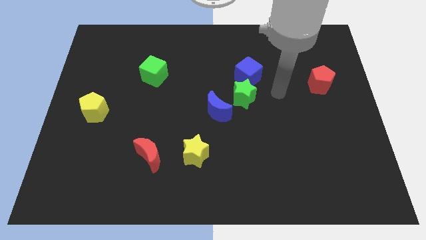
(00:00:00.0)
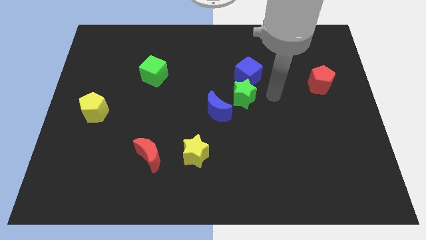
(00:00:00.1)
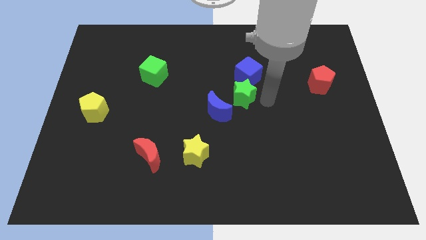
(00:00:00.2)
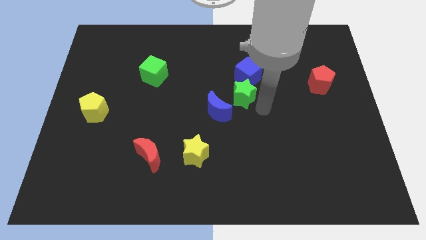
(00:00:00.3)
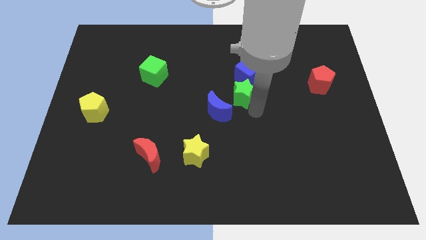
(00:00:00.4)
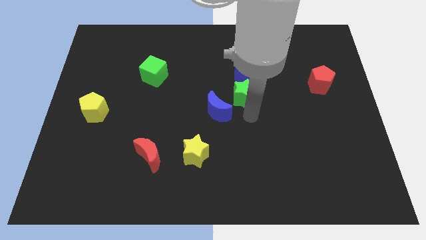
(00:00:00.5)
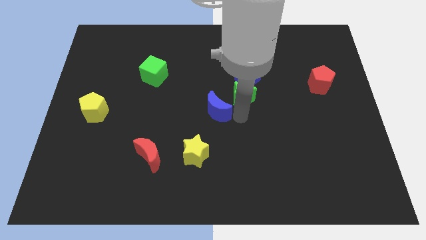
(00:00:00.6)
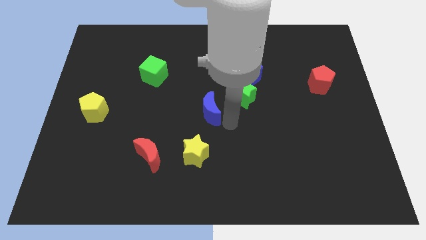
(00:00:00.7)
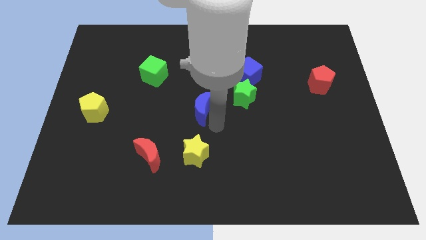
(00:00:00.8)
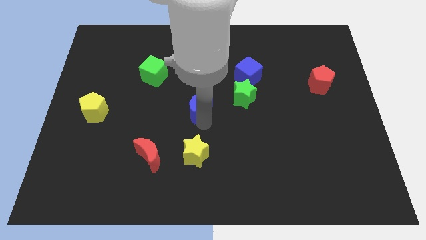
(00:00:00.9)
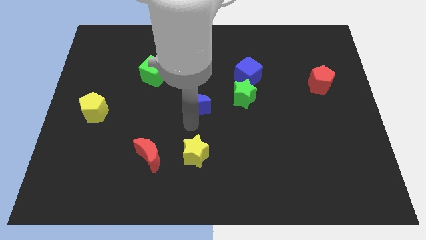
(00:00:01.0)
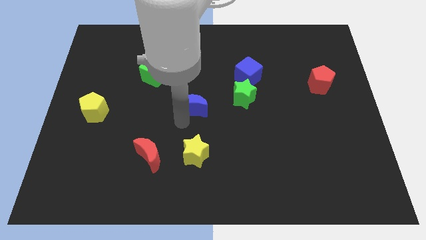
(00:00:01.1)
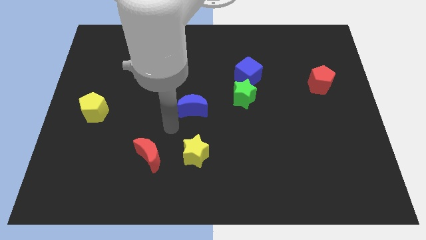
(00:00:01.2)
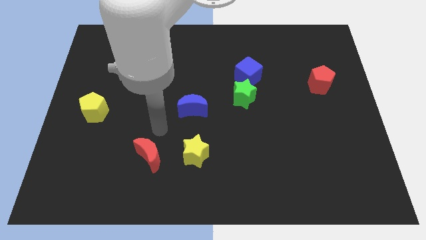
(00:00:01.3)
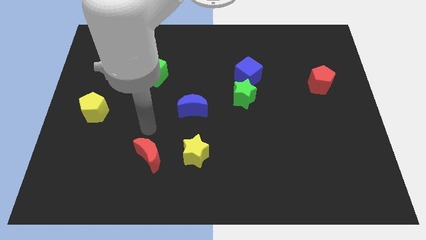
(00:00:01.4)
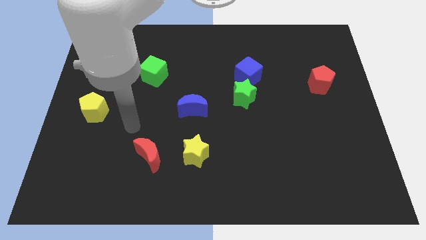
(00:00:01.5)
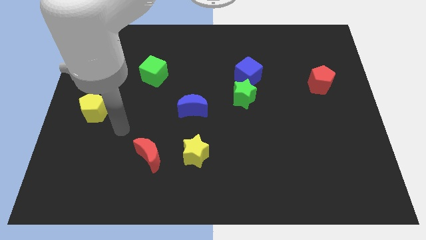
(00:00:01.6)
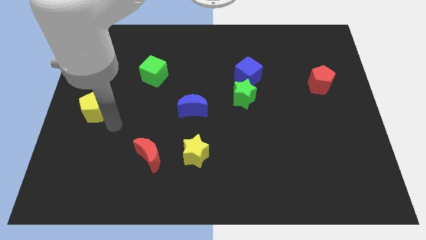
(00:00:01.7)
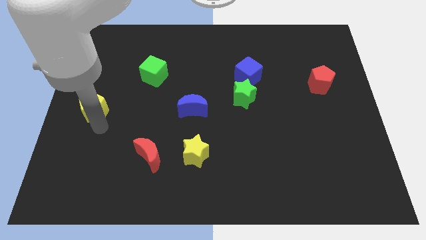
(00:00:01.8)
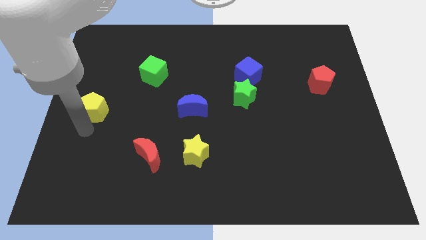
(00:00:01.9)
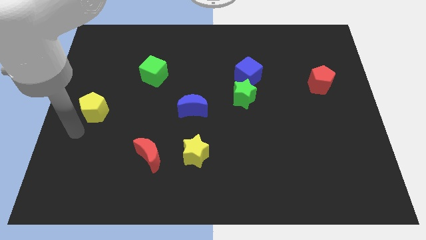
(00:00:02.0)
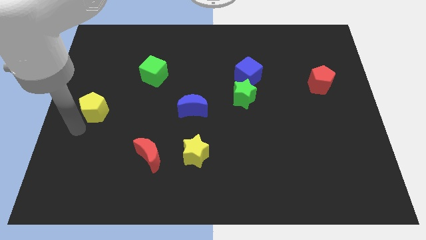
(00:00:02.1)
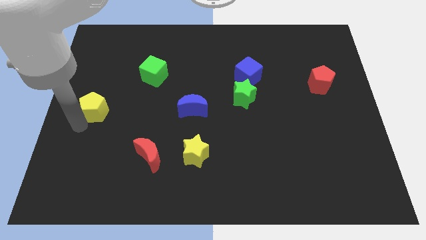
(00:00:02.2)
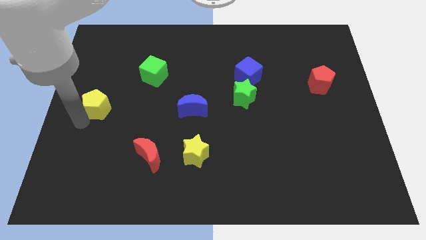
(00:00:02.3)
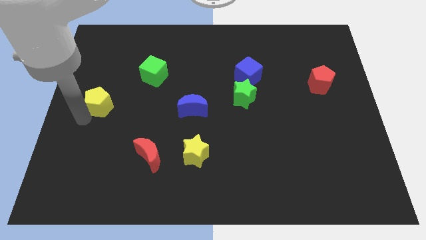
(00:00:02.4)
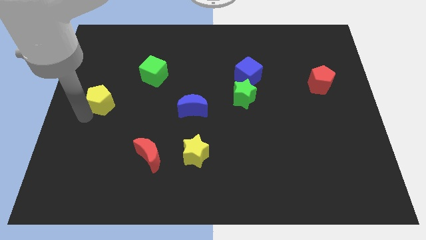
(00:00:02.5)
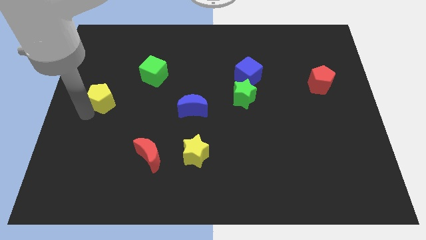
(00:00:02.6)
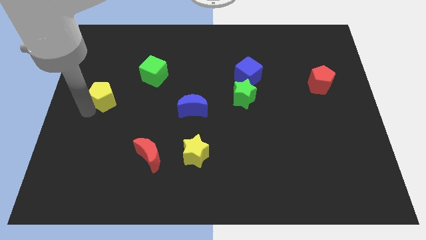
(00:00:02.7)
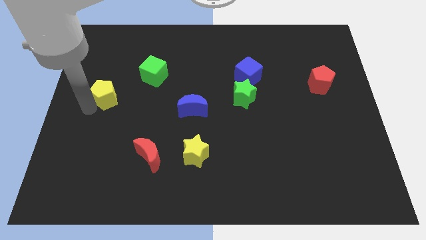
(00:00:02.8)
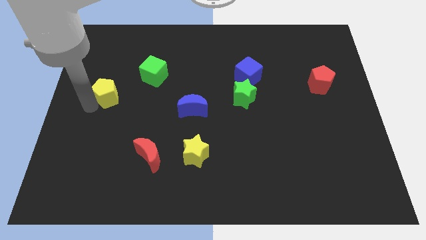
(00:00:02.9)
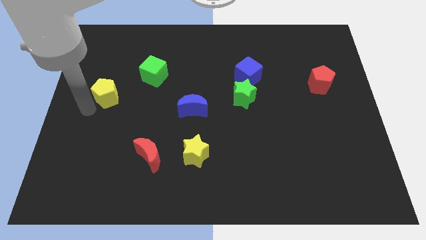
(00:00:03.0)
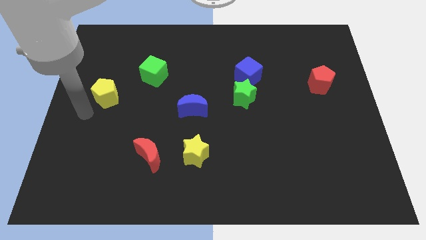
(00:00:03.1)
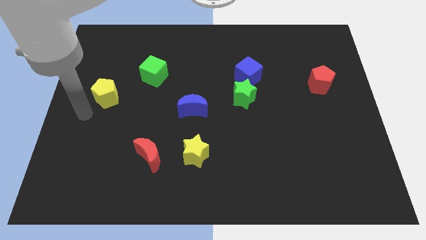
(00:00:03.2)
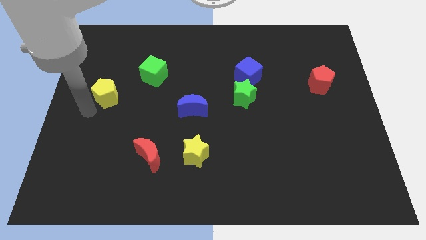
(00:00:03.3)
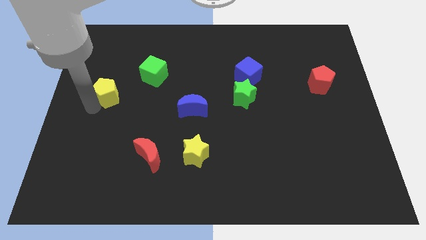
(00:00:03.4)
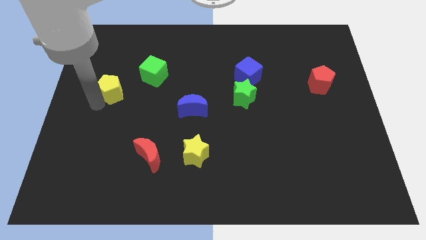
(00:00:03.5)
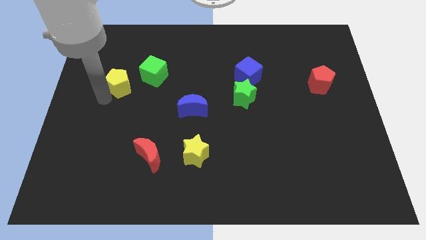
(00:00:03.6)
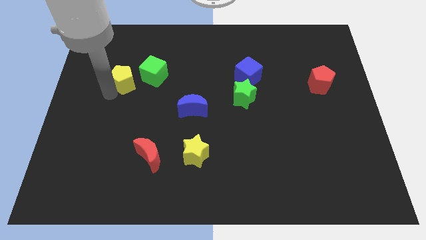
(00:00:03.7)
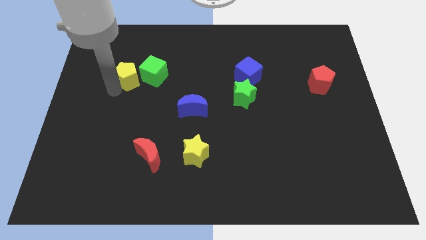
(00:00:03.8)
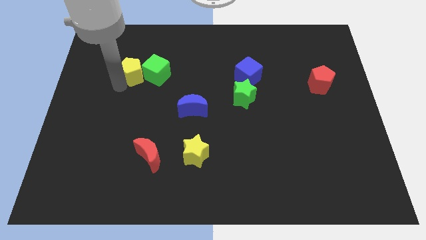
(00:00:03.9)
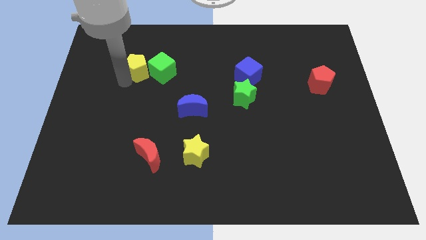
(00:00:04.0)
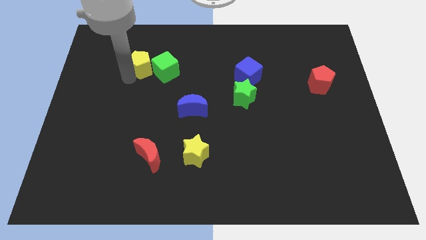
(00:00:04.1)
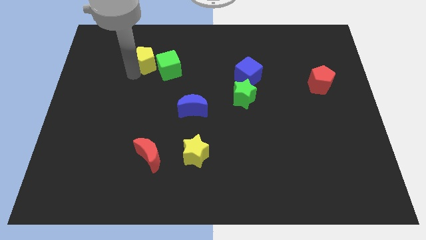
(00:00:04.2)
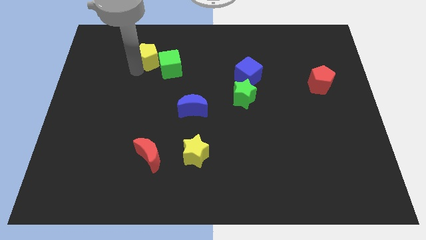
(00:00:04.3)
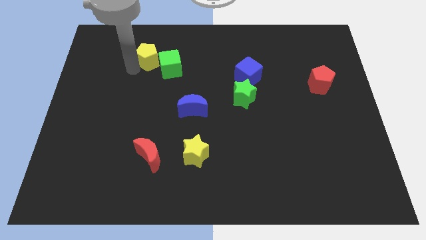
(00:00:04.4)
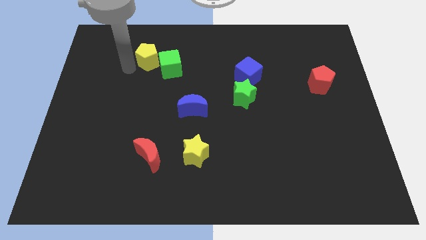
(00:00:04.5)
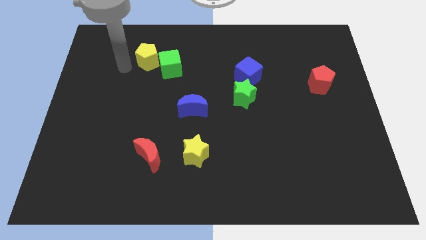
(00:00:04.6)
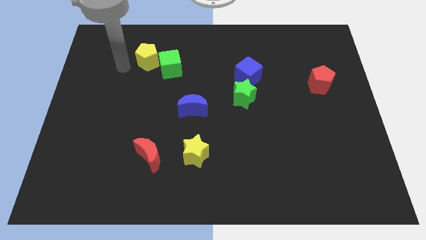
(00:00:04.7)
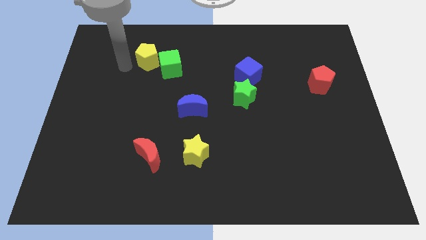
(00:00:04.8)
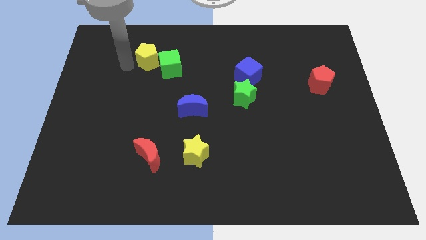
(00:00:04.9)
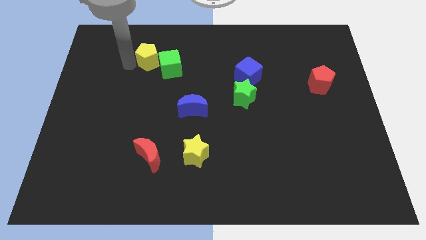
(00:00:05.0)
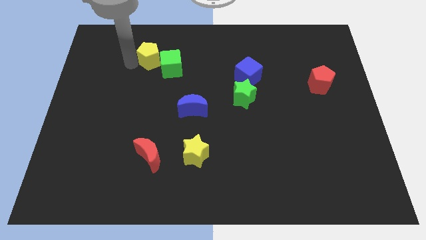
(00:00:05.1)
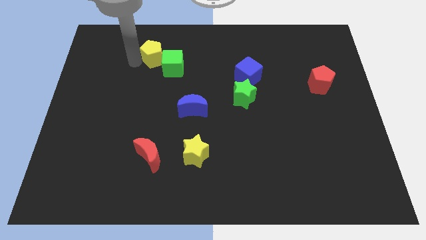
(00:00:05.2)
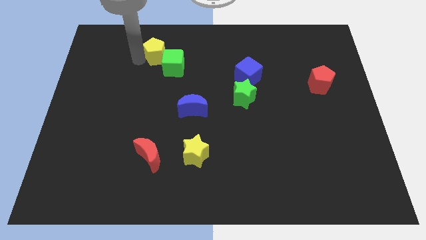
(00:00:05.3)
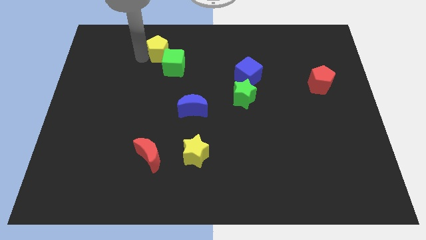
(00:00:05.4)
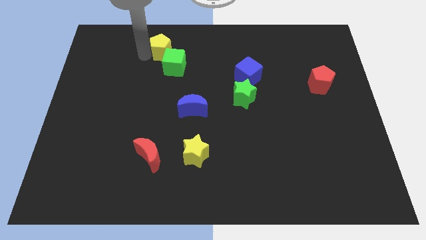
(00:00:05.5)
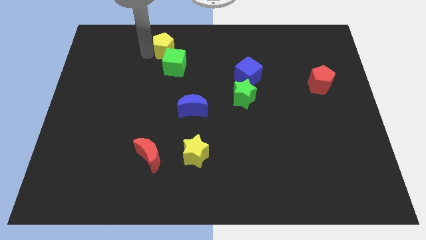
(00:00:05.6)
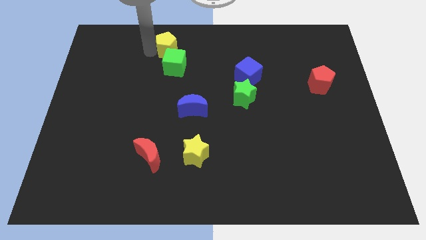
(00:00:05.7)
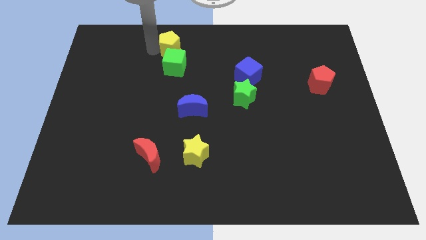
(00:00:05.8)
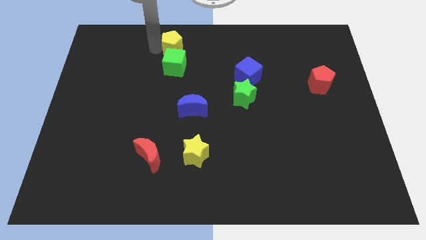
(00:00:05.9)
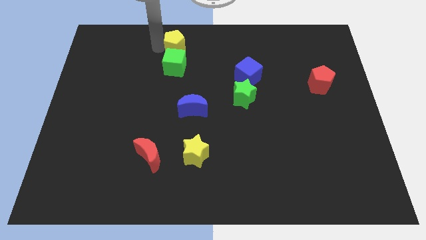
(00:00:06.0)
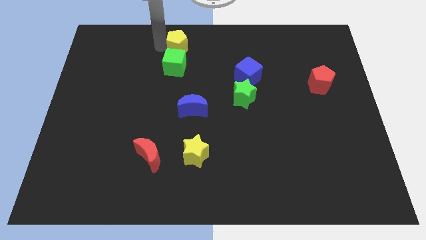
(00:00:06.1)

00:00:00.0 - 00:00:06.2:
push the yellow pentagon to the top right of the green cube

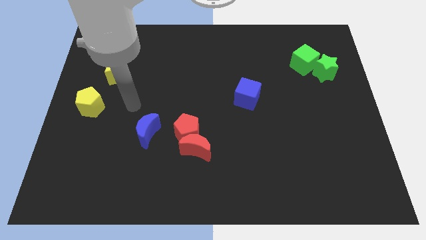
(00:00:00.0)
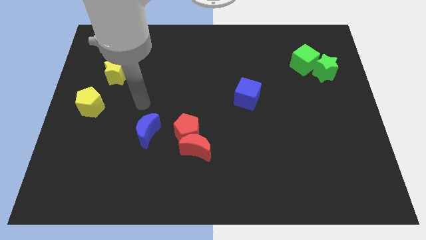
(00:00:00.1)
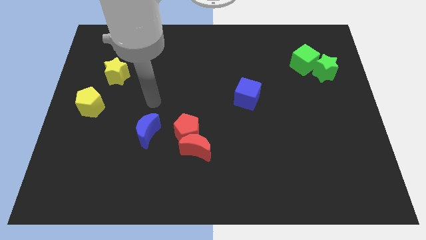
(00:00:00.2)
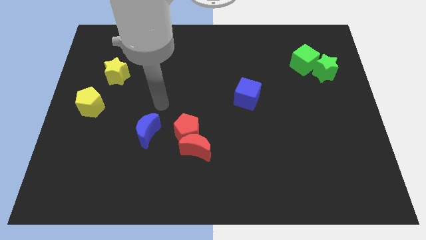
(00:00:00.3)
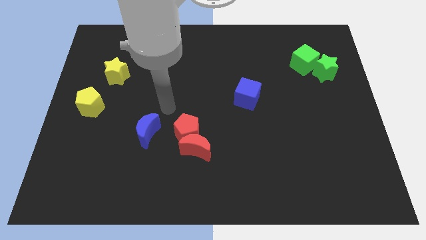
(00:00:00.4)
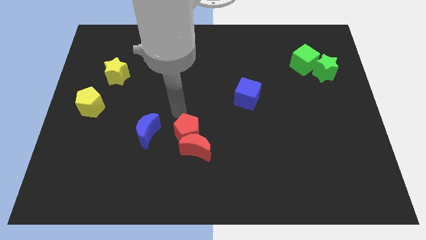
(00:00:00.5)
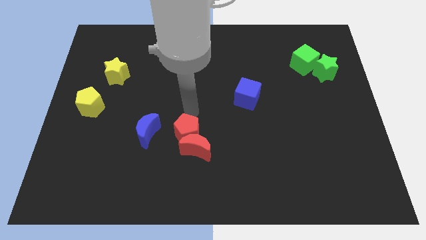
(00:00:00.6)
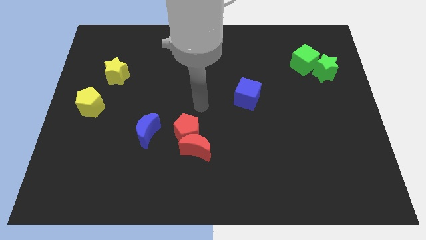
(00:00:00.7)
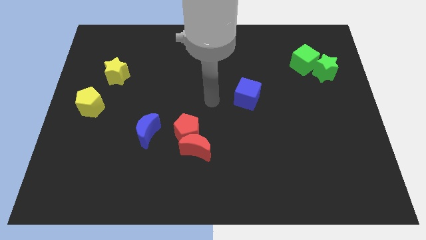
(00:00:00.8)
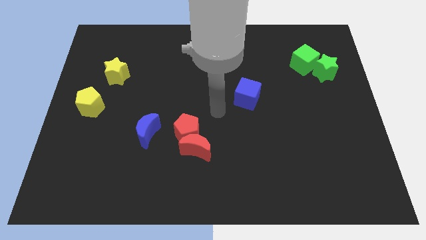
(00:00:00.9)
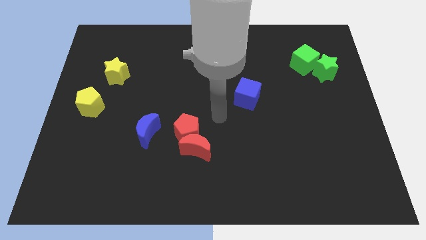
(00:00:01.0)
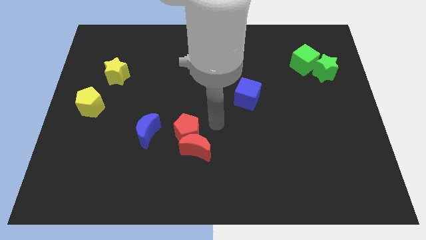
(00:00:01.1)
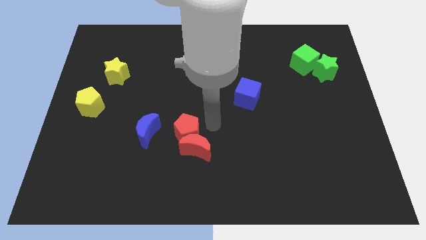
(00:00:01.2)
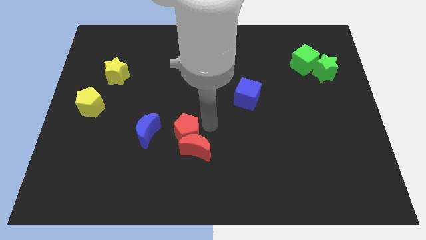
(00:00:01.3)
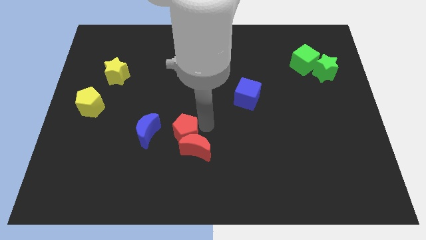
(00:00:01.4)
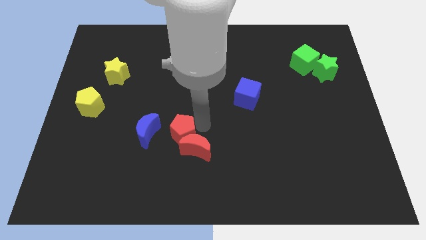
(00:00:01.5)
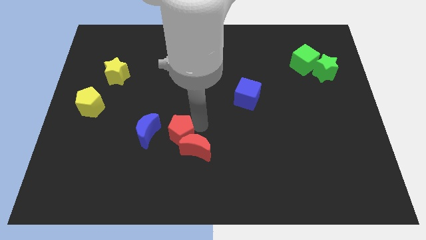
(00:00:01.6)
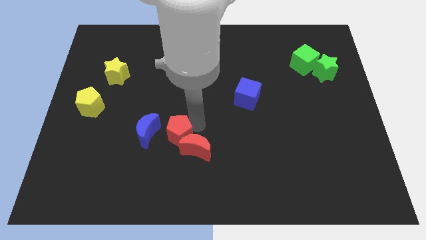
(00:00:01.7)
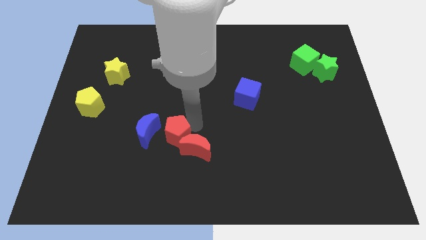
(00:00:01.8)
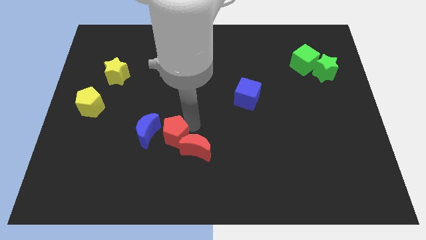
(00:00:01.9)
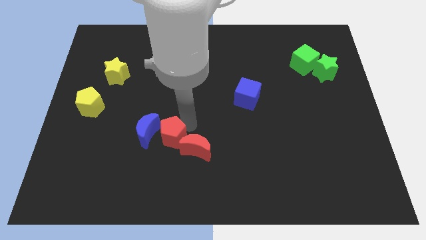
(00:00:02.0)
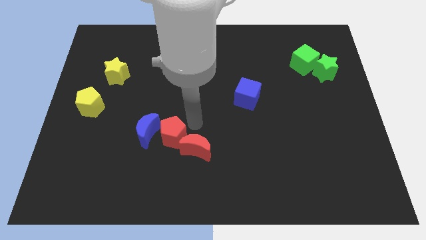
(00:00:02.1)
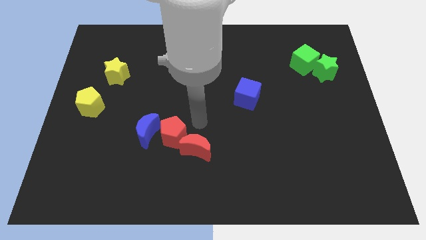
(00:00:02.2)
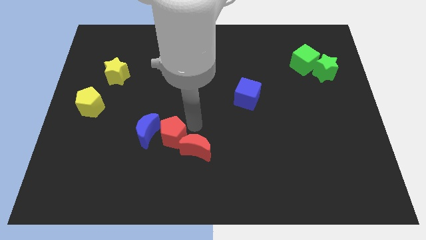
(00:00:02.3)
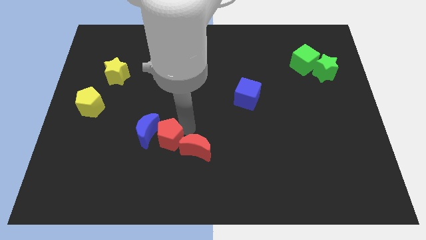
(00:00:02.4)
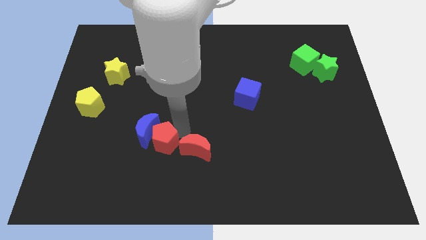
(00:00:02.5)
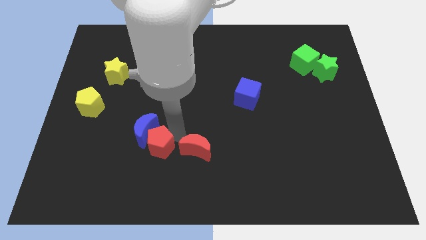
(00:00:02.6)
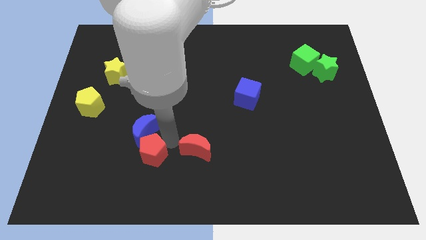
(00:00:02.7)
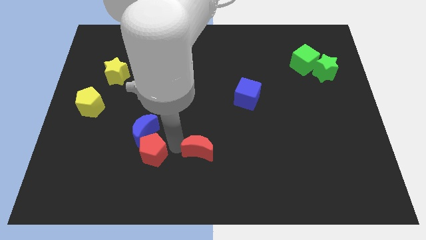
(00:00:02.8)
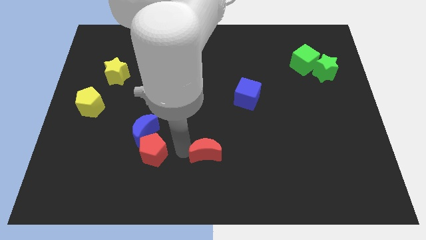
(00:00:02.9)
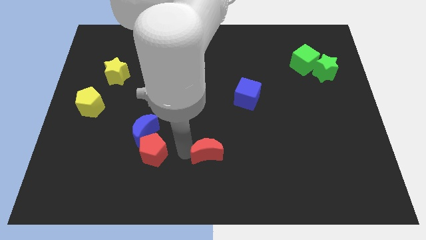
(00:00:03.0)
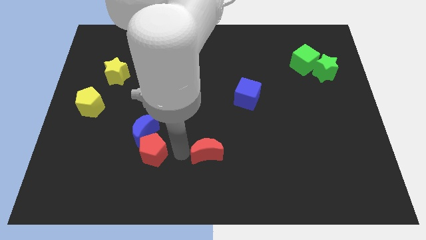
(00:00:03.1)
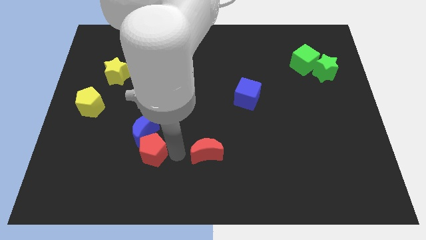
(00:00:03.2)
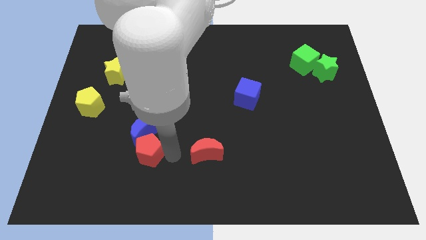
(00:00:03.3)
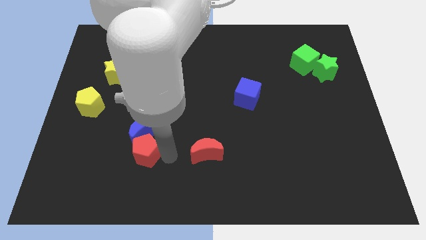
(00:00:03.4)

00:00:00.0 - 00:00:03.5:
put the red pentagon diagonally down and to the left of the blue moon
